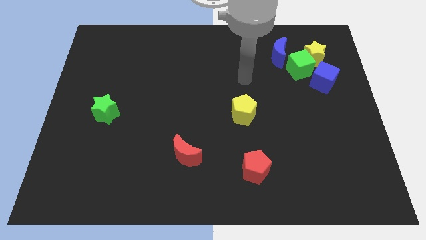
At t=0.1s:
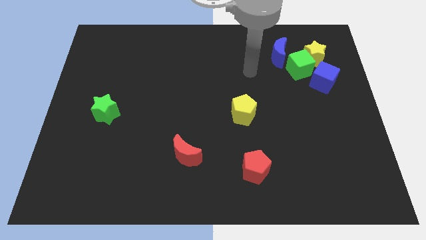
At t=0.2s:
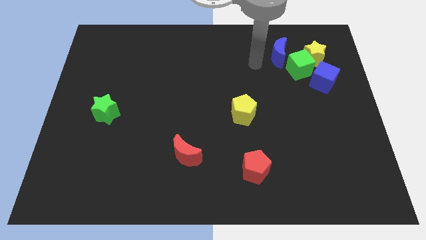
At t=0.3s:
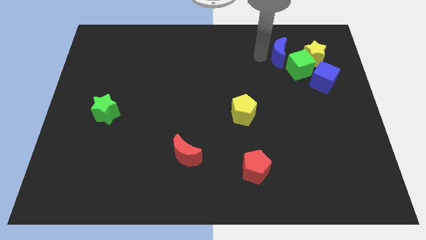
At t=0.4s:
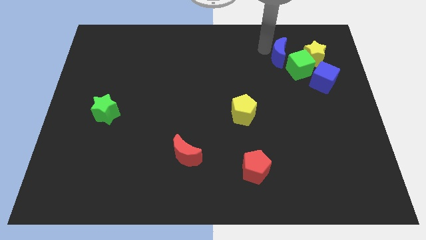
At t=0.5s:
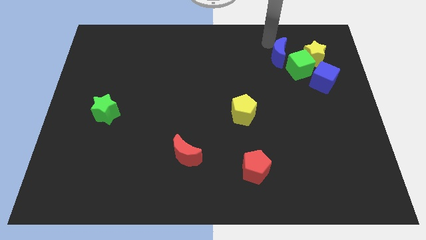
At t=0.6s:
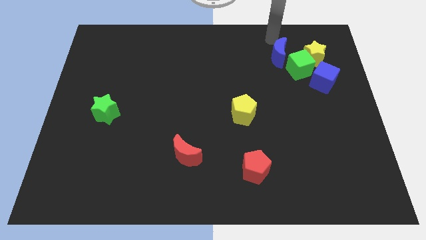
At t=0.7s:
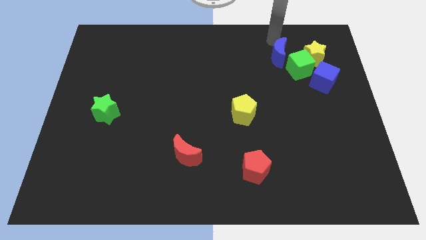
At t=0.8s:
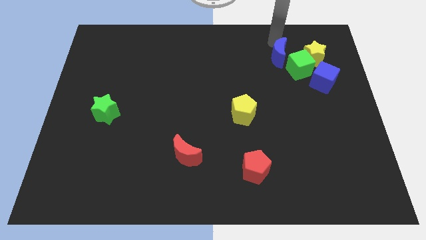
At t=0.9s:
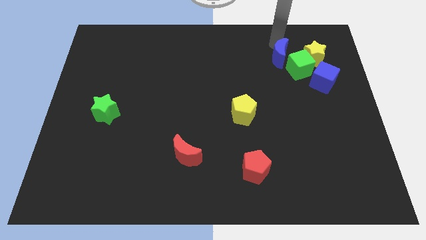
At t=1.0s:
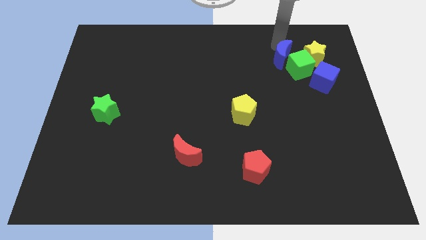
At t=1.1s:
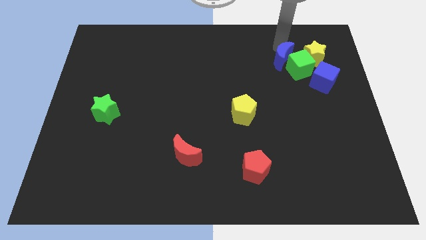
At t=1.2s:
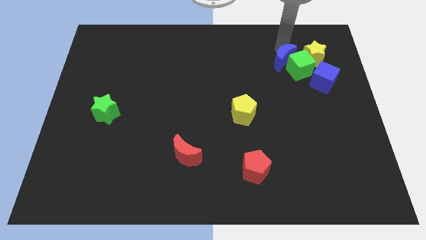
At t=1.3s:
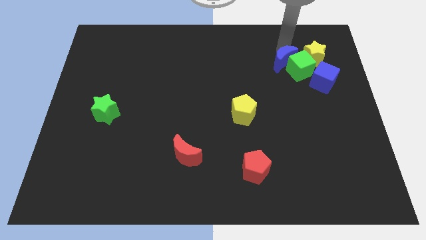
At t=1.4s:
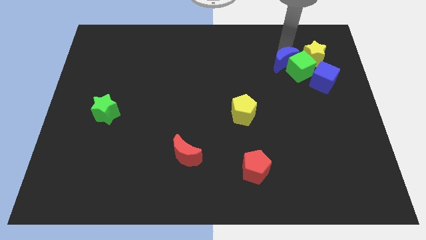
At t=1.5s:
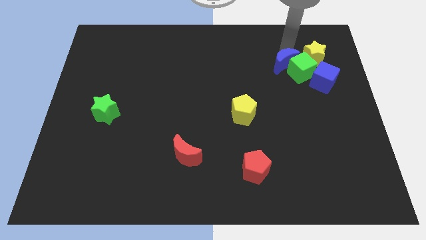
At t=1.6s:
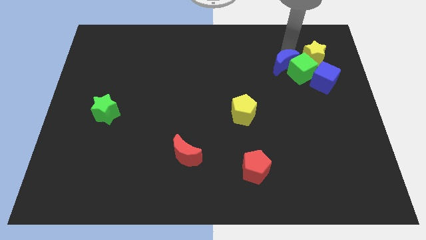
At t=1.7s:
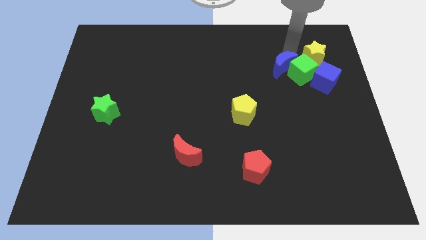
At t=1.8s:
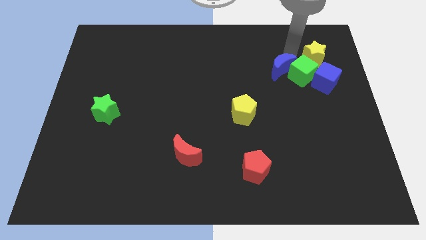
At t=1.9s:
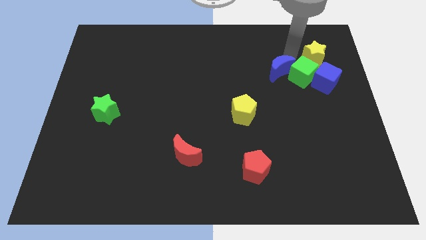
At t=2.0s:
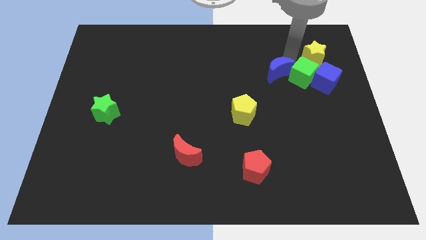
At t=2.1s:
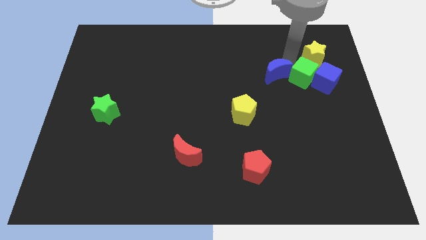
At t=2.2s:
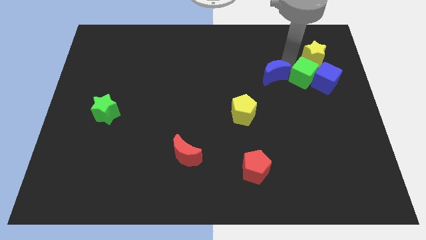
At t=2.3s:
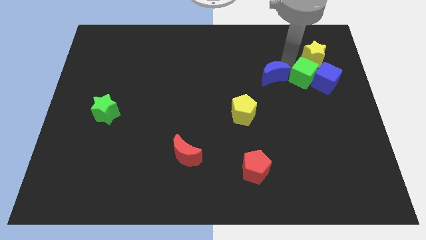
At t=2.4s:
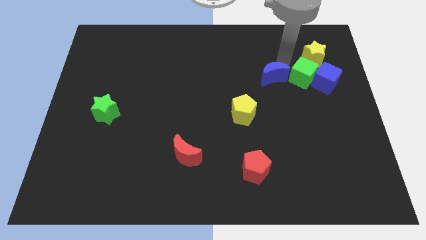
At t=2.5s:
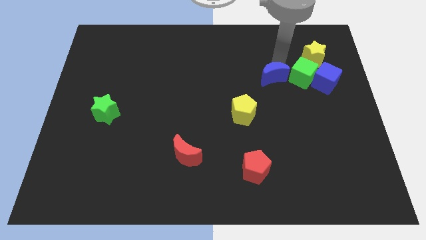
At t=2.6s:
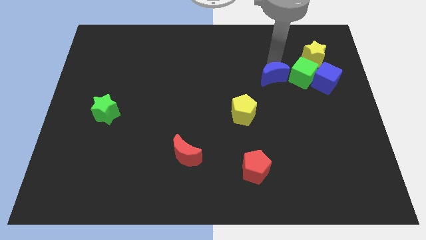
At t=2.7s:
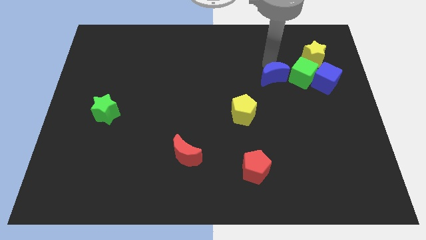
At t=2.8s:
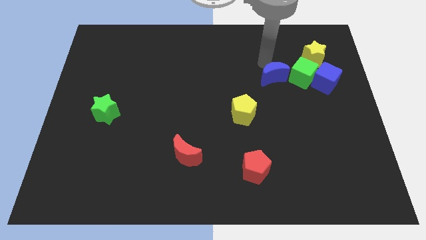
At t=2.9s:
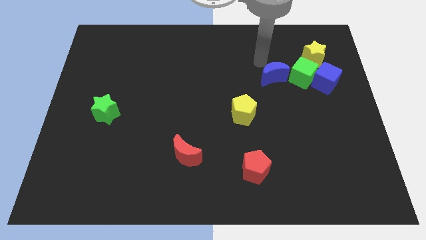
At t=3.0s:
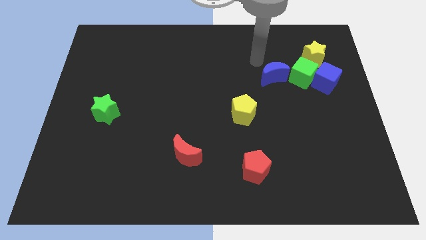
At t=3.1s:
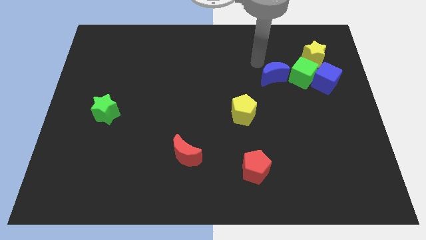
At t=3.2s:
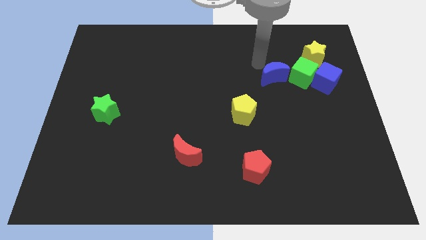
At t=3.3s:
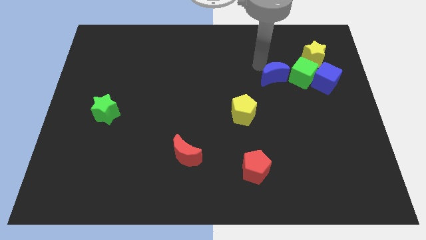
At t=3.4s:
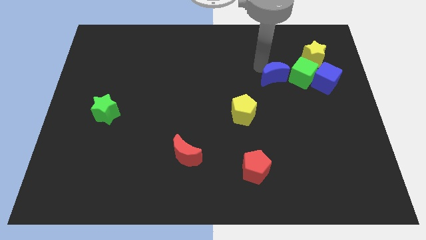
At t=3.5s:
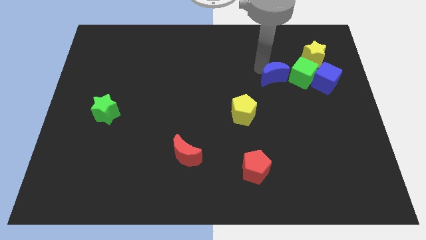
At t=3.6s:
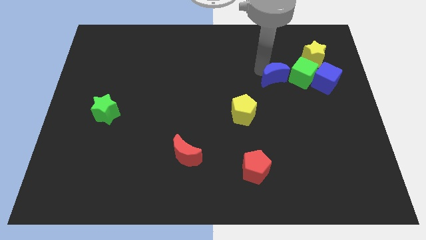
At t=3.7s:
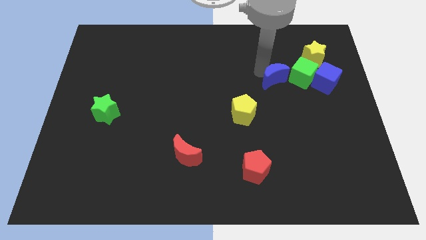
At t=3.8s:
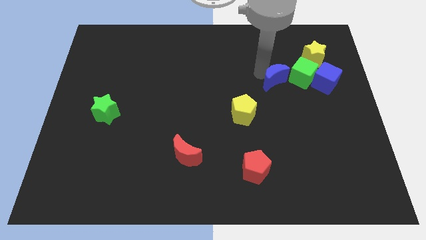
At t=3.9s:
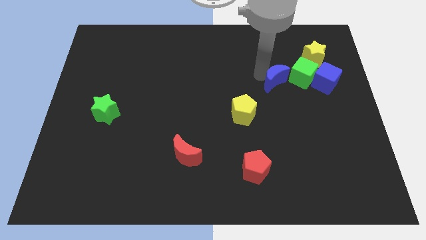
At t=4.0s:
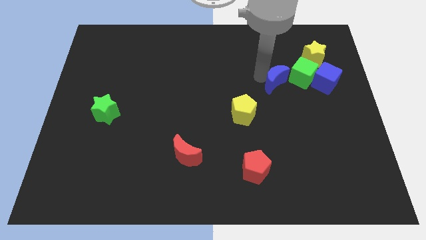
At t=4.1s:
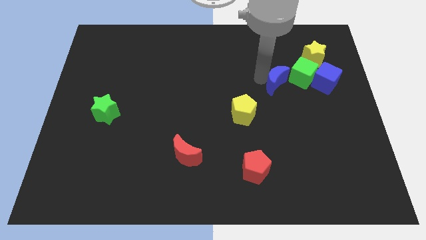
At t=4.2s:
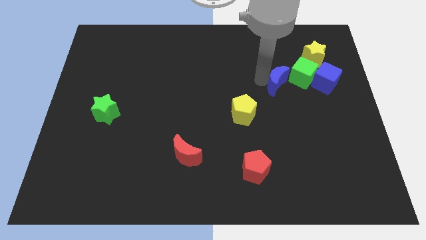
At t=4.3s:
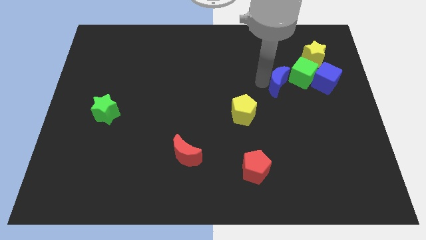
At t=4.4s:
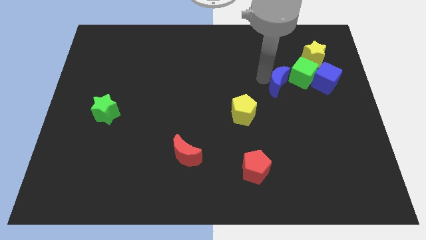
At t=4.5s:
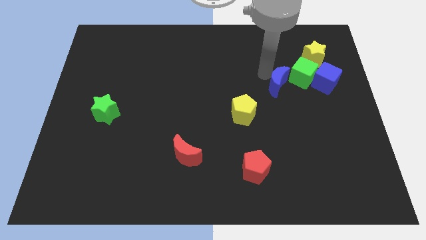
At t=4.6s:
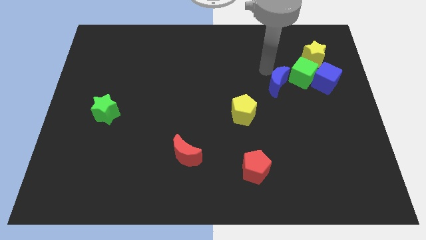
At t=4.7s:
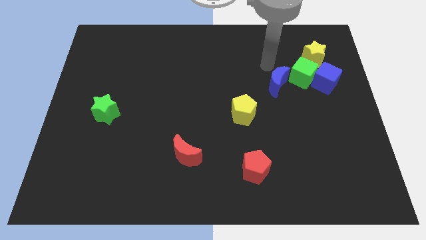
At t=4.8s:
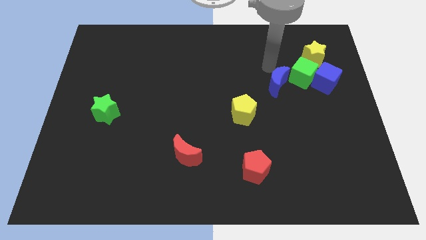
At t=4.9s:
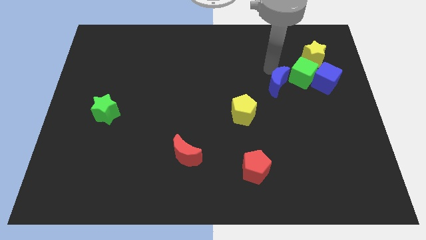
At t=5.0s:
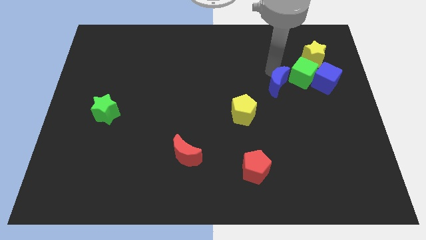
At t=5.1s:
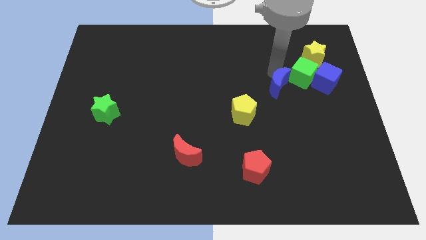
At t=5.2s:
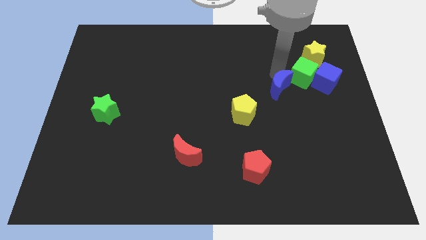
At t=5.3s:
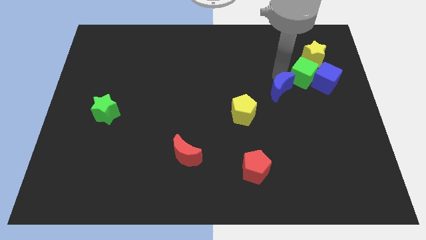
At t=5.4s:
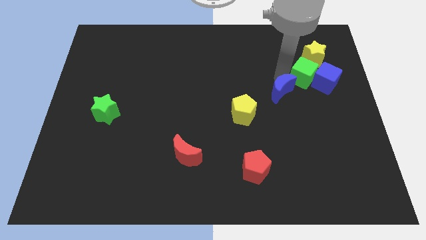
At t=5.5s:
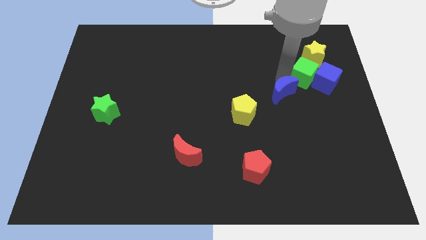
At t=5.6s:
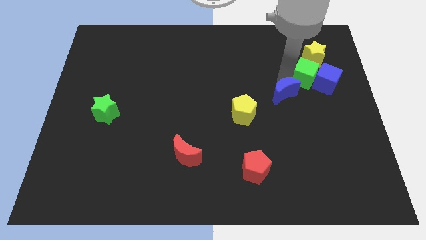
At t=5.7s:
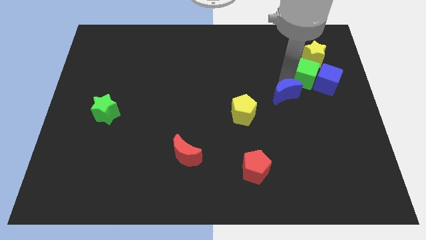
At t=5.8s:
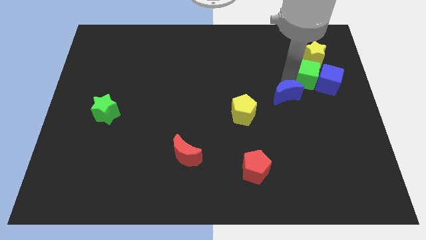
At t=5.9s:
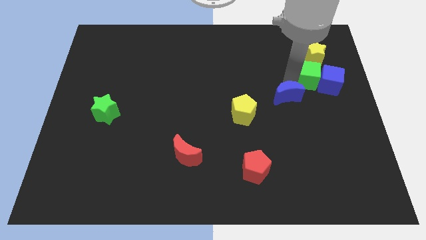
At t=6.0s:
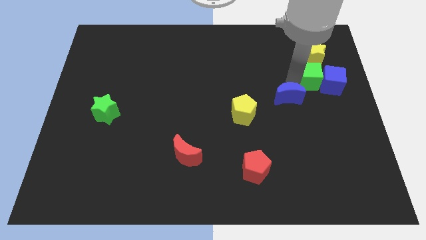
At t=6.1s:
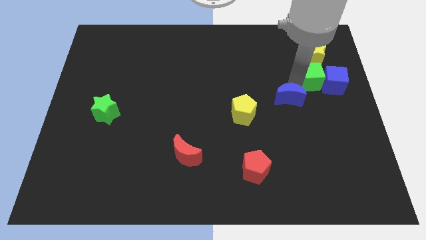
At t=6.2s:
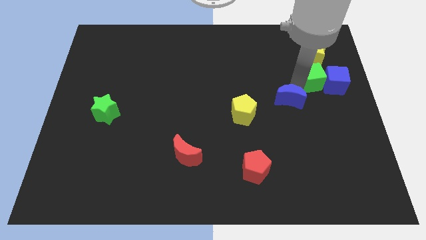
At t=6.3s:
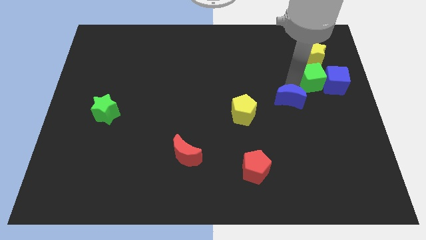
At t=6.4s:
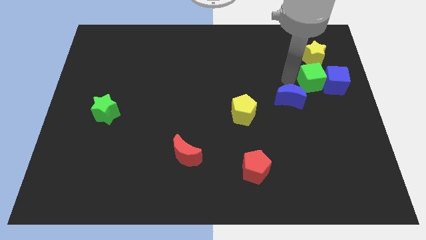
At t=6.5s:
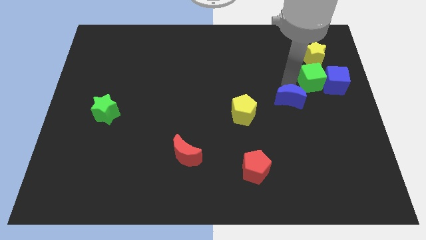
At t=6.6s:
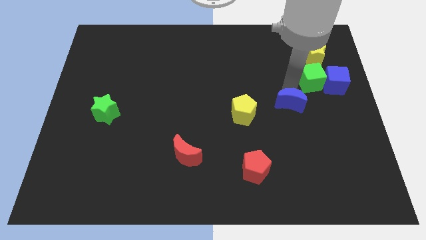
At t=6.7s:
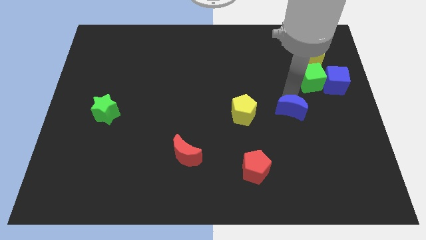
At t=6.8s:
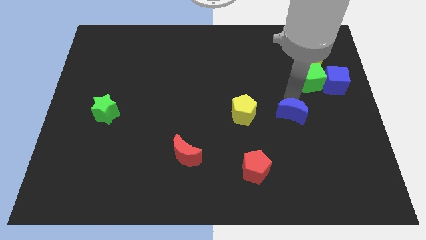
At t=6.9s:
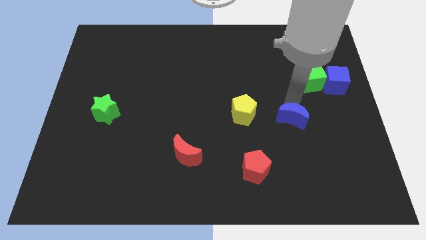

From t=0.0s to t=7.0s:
push the blue moon downwards

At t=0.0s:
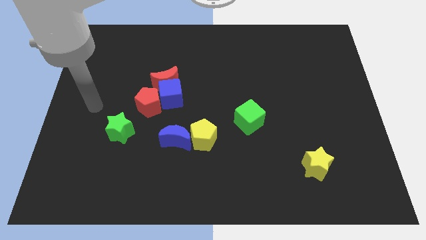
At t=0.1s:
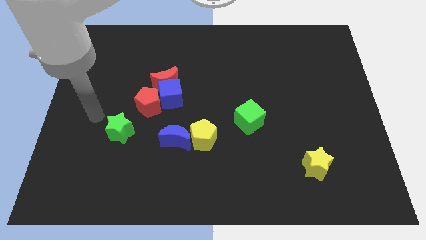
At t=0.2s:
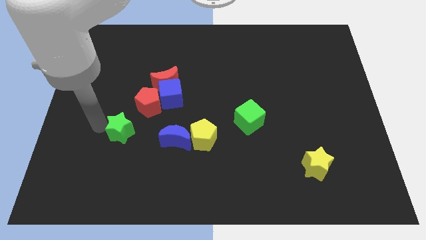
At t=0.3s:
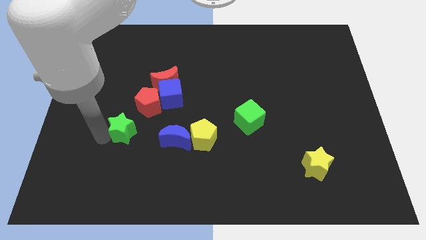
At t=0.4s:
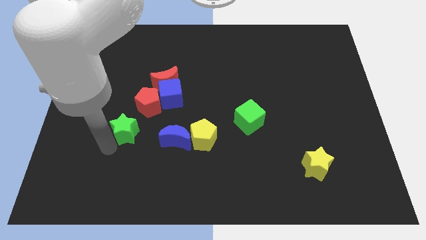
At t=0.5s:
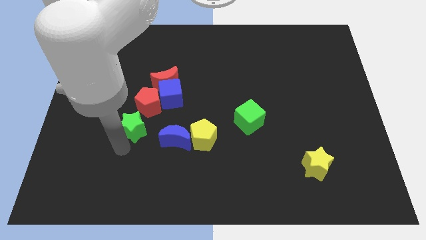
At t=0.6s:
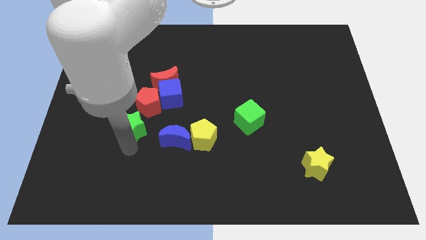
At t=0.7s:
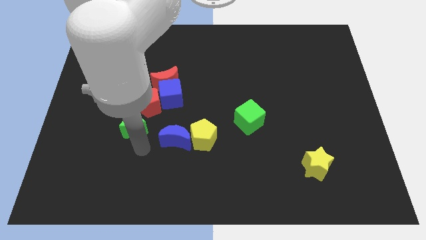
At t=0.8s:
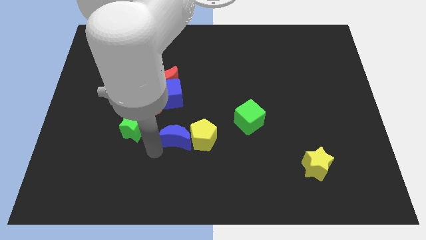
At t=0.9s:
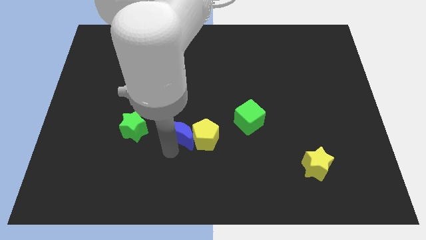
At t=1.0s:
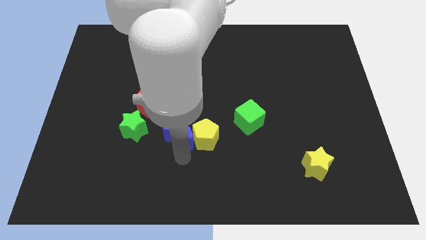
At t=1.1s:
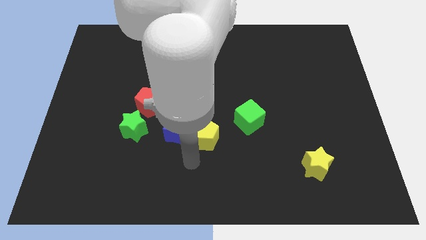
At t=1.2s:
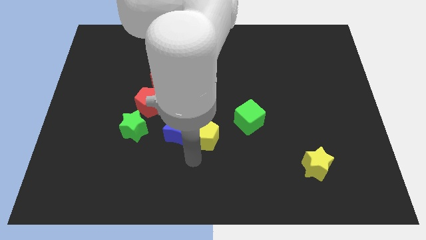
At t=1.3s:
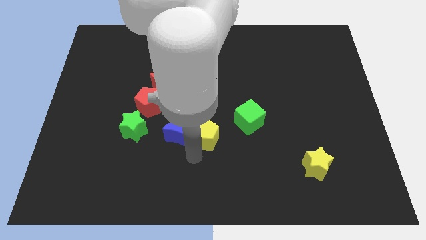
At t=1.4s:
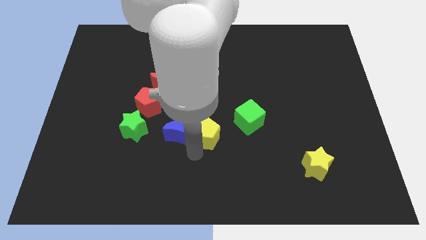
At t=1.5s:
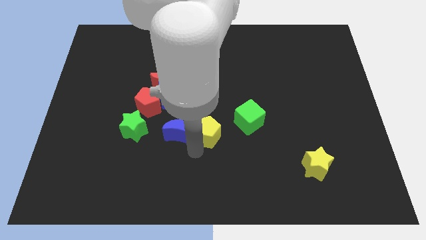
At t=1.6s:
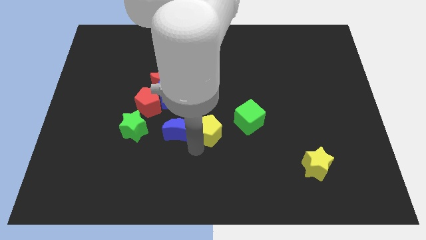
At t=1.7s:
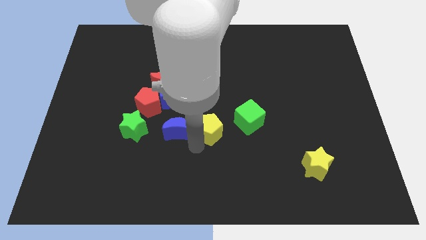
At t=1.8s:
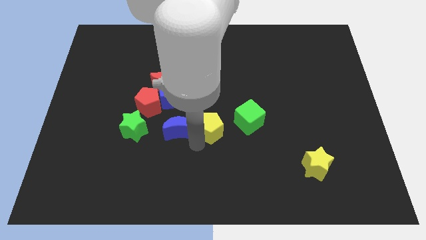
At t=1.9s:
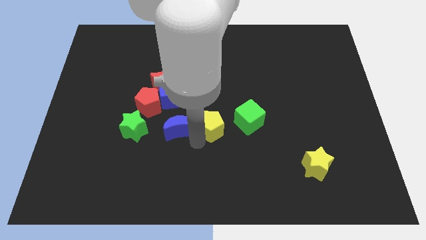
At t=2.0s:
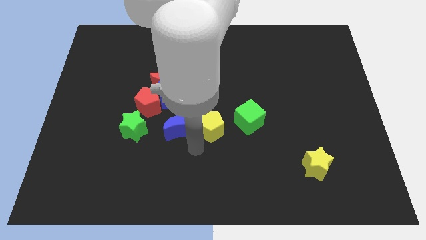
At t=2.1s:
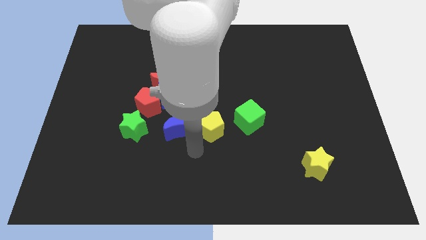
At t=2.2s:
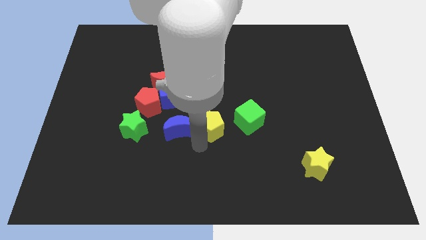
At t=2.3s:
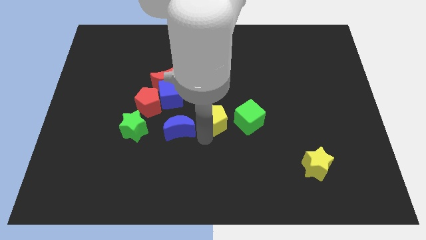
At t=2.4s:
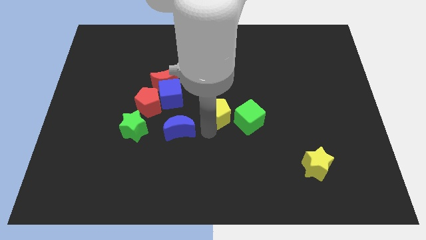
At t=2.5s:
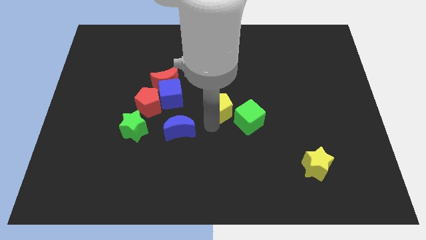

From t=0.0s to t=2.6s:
push the yellow pentagon somewhat diagonally up and to the right
